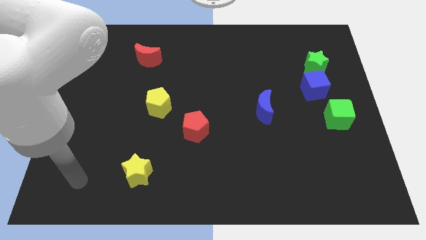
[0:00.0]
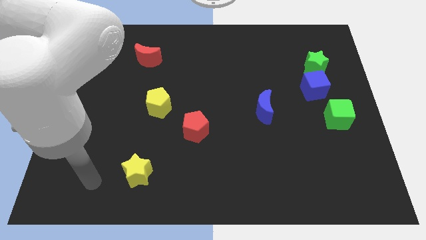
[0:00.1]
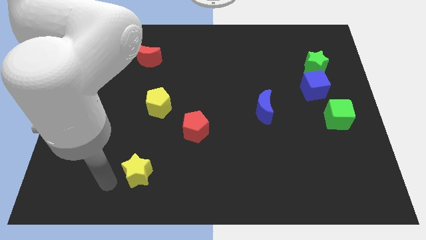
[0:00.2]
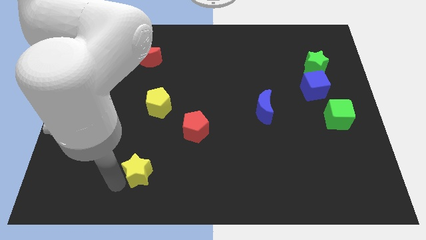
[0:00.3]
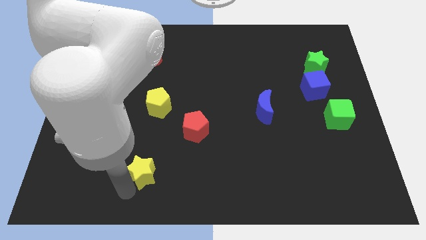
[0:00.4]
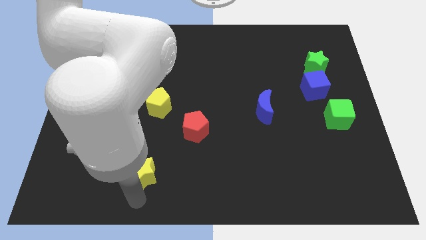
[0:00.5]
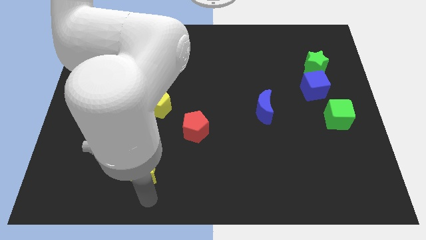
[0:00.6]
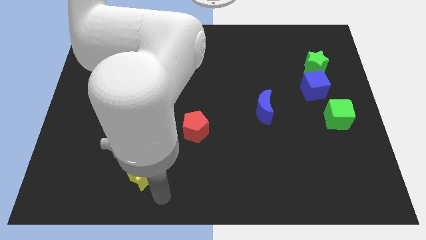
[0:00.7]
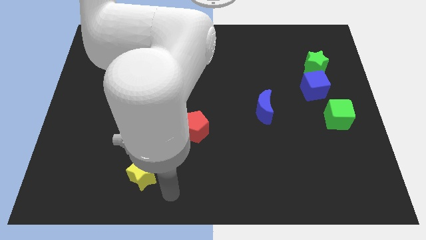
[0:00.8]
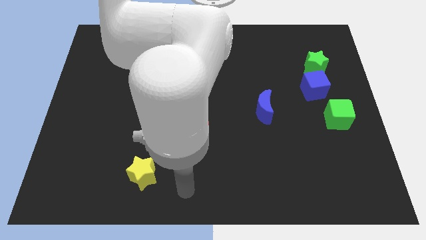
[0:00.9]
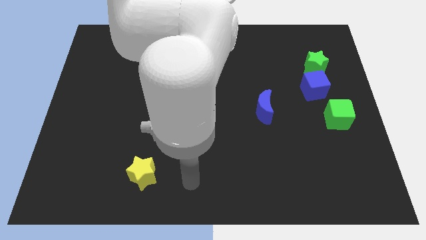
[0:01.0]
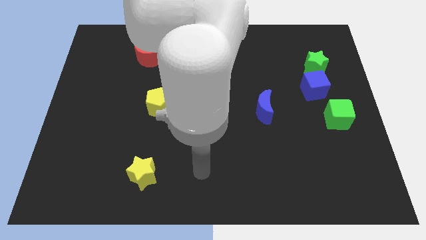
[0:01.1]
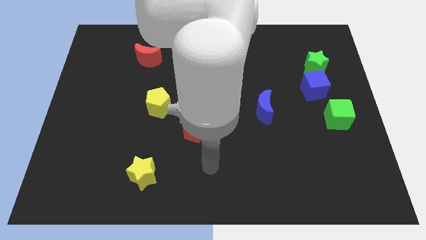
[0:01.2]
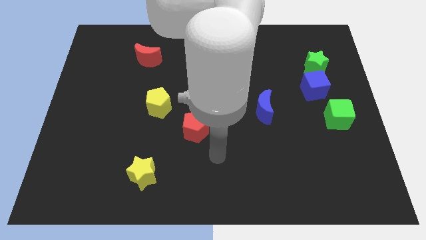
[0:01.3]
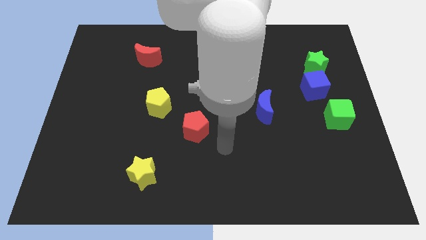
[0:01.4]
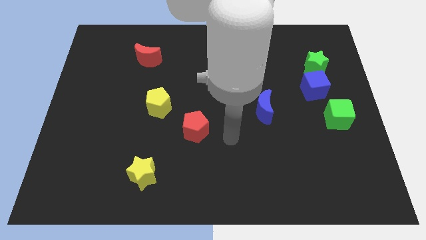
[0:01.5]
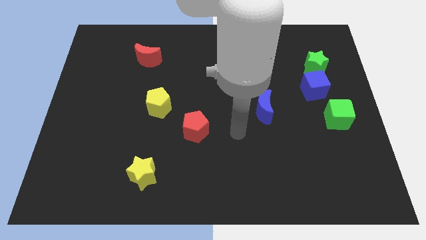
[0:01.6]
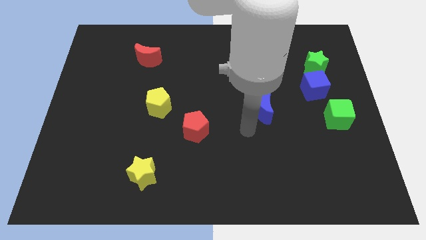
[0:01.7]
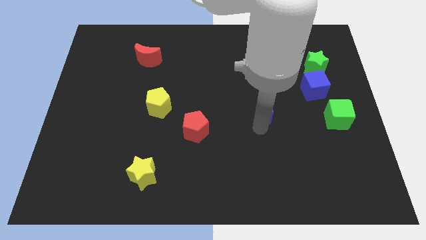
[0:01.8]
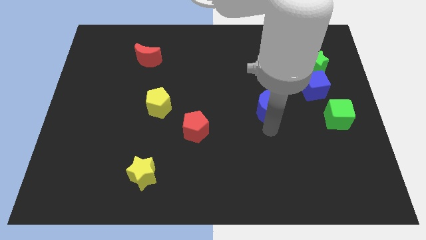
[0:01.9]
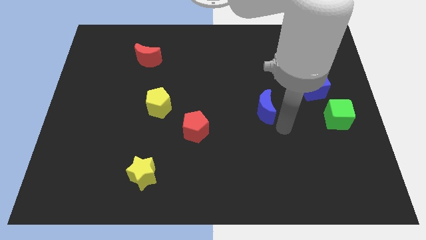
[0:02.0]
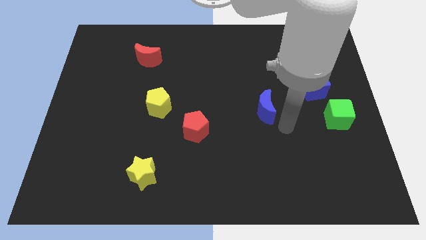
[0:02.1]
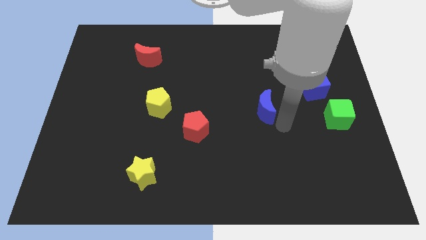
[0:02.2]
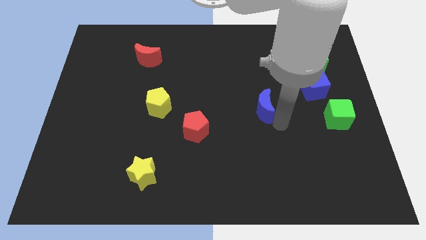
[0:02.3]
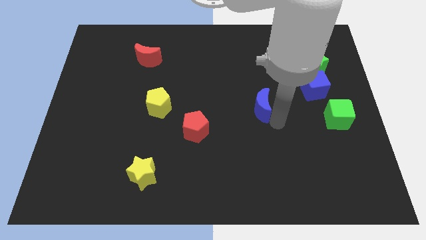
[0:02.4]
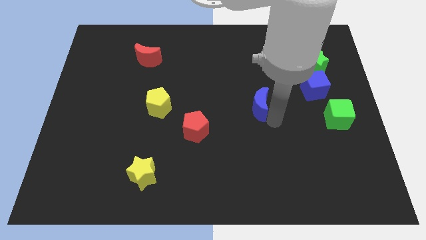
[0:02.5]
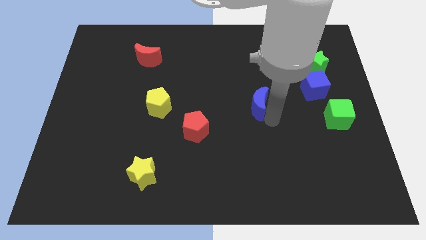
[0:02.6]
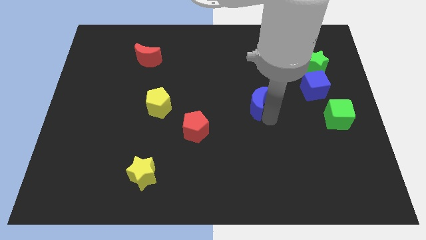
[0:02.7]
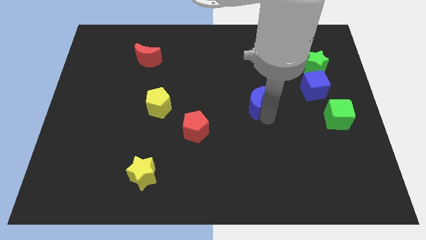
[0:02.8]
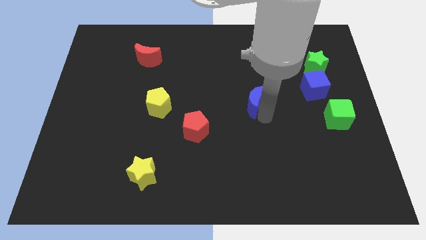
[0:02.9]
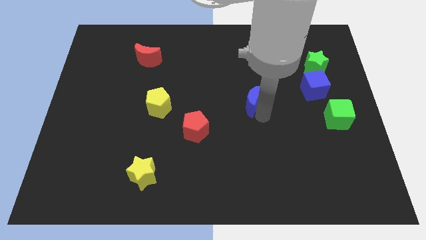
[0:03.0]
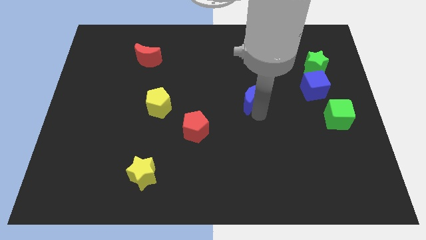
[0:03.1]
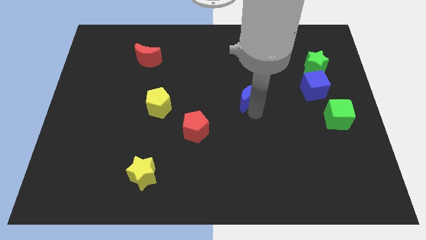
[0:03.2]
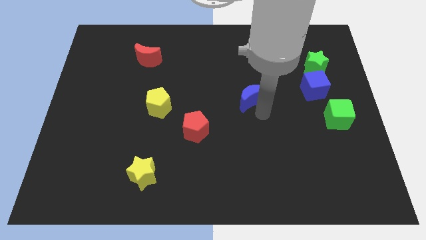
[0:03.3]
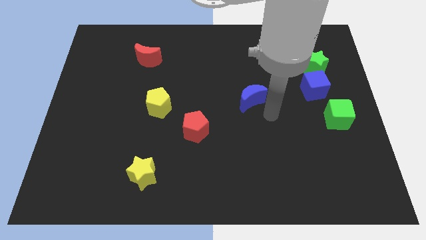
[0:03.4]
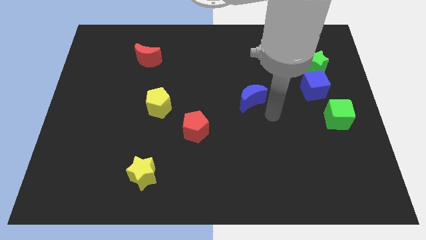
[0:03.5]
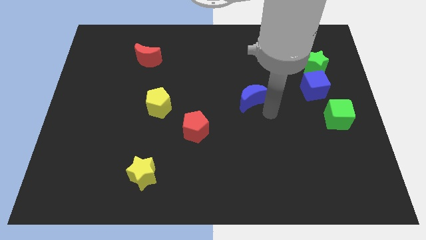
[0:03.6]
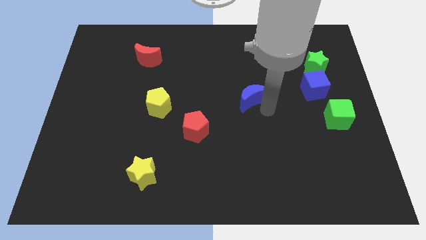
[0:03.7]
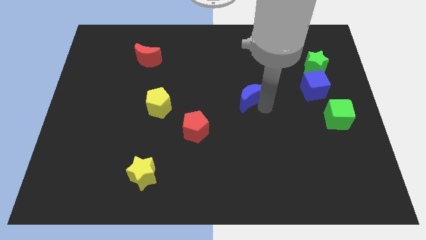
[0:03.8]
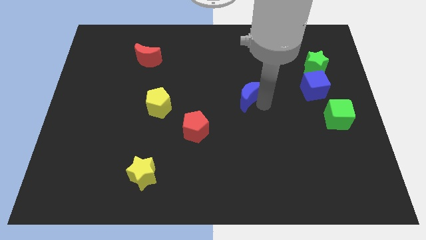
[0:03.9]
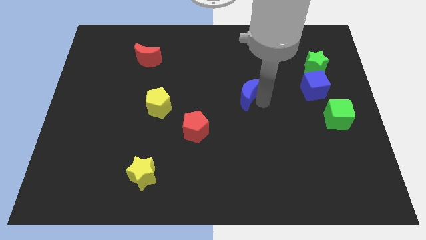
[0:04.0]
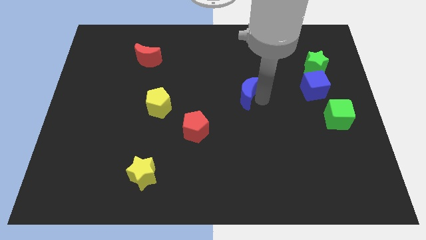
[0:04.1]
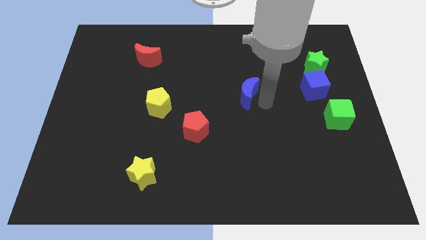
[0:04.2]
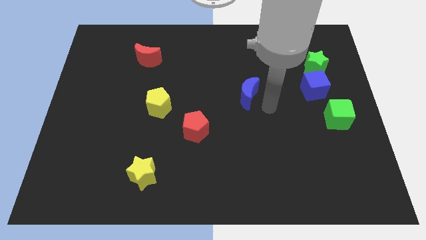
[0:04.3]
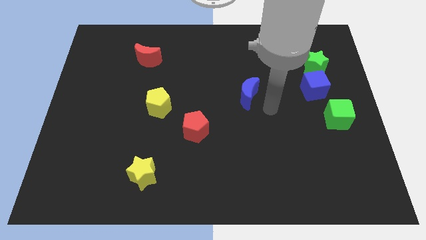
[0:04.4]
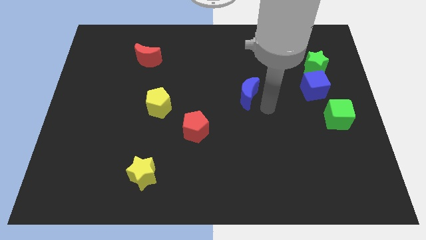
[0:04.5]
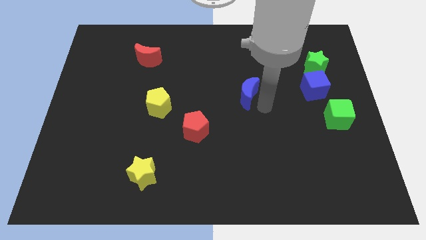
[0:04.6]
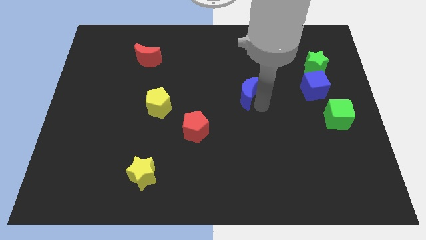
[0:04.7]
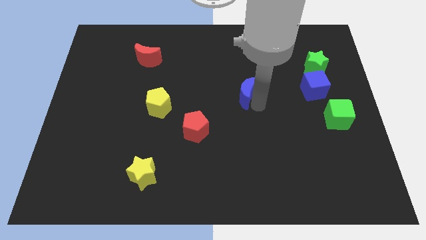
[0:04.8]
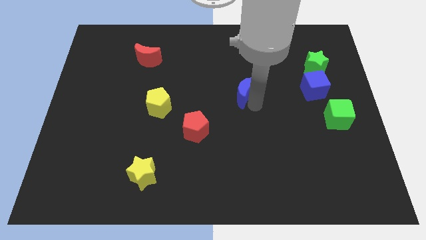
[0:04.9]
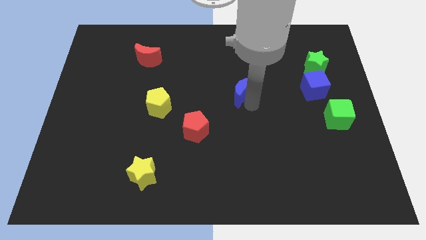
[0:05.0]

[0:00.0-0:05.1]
slightly slide the blue moon upwards and then left

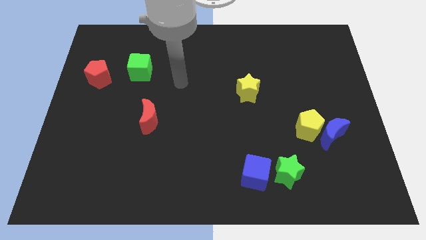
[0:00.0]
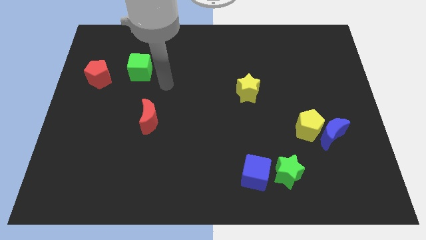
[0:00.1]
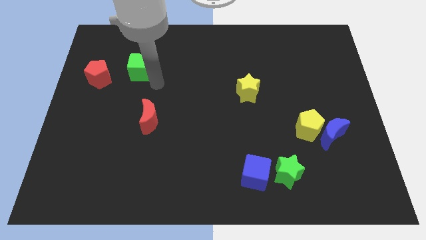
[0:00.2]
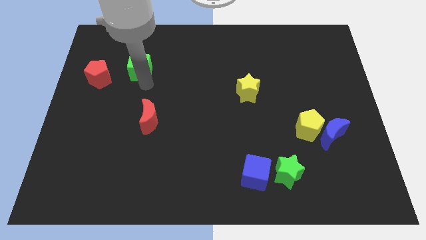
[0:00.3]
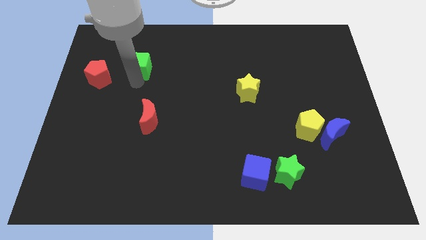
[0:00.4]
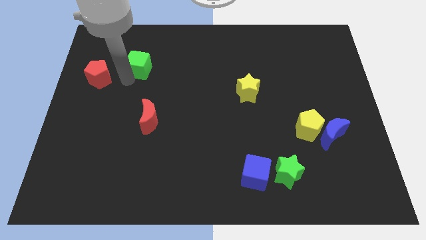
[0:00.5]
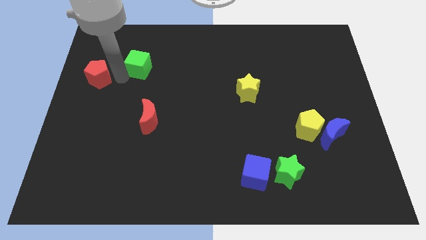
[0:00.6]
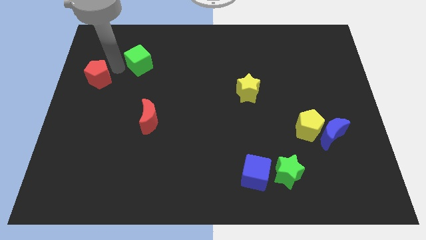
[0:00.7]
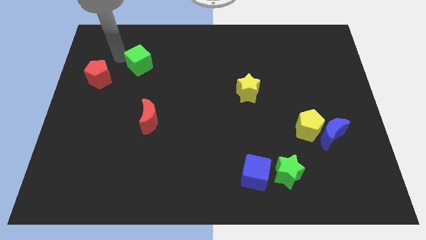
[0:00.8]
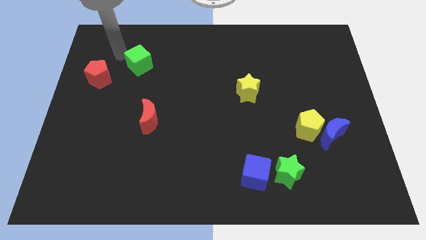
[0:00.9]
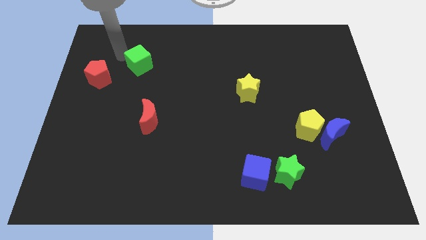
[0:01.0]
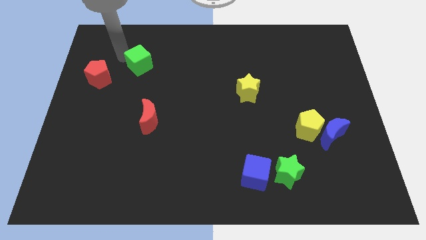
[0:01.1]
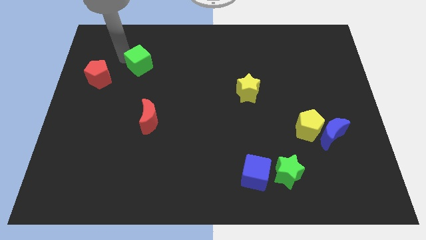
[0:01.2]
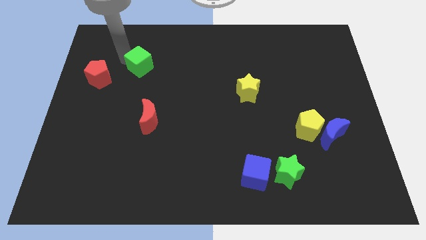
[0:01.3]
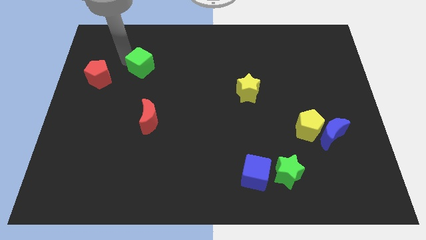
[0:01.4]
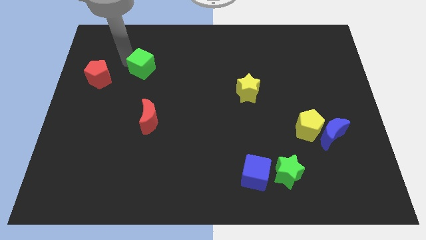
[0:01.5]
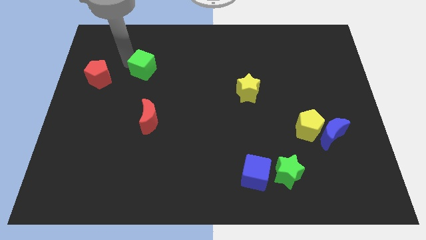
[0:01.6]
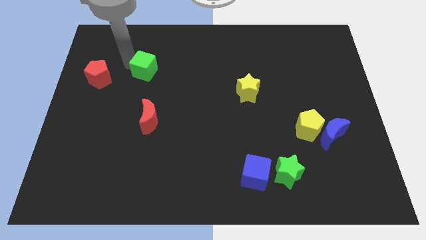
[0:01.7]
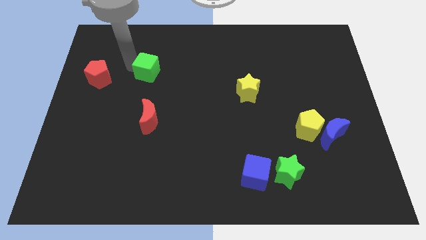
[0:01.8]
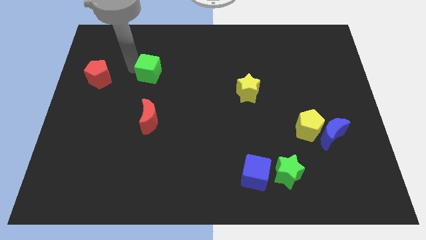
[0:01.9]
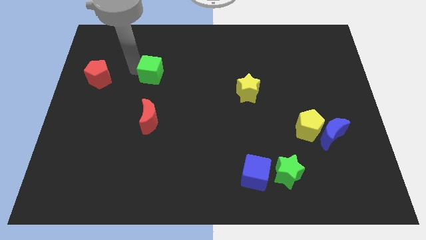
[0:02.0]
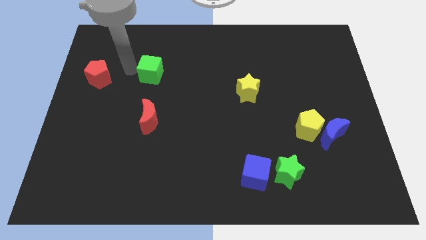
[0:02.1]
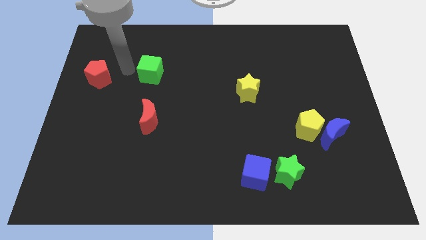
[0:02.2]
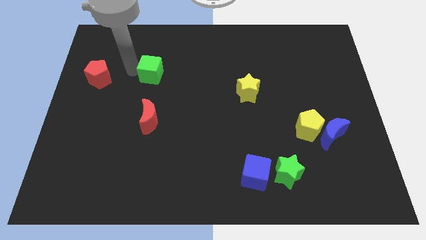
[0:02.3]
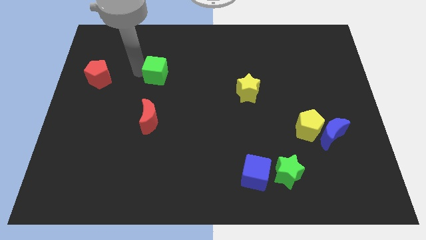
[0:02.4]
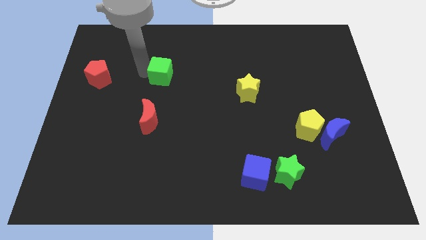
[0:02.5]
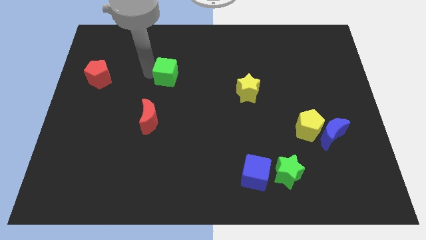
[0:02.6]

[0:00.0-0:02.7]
slightly push the green cube to the right
